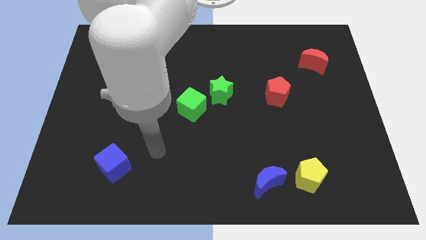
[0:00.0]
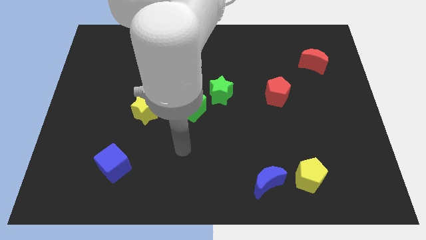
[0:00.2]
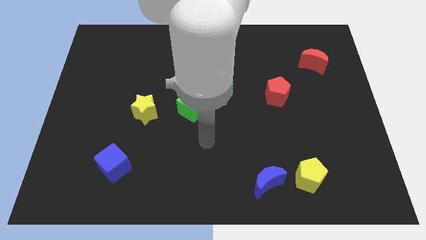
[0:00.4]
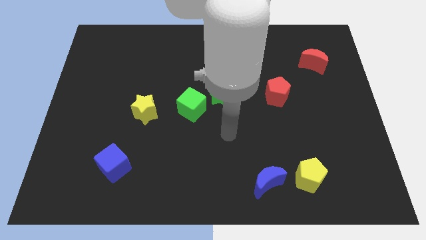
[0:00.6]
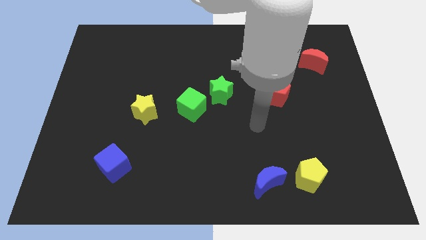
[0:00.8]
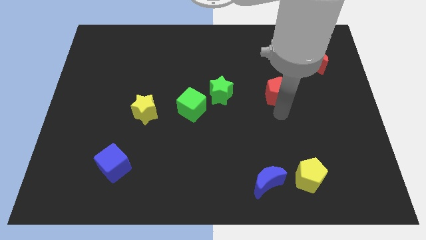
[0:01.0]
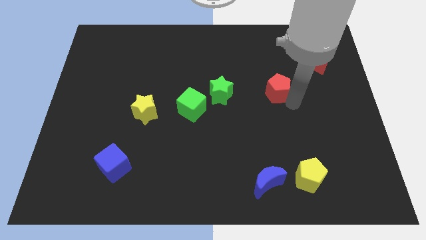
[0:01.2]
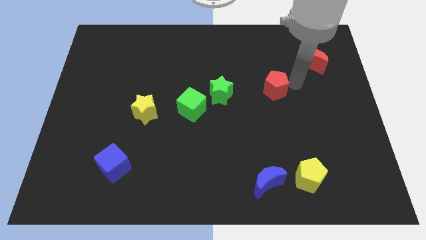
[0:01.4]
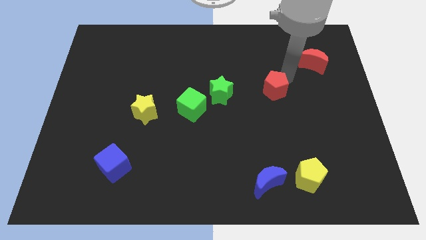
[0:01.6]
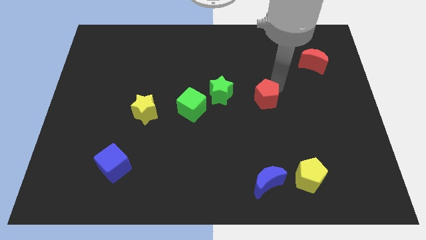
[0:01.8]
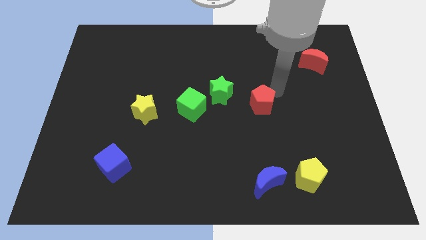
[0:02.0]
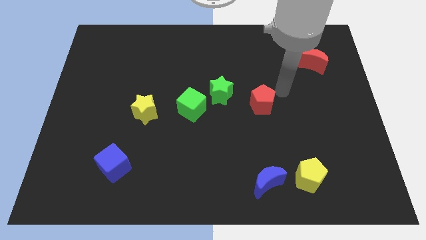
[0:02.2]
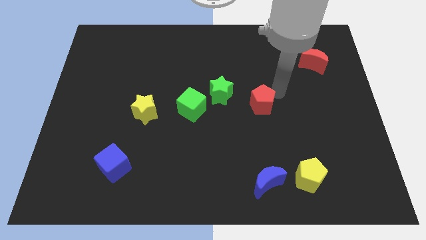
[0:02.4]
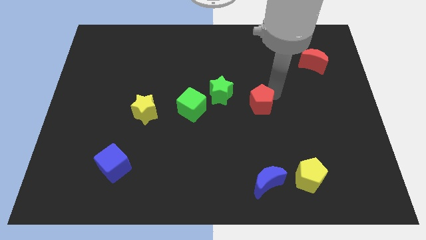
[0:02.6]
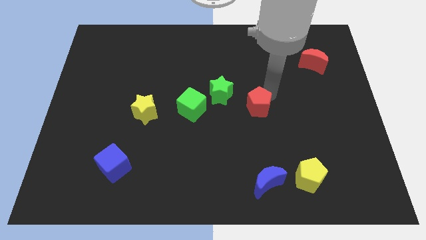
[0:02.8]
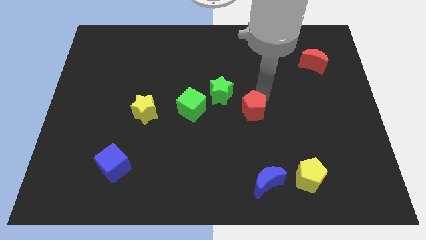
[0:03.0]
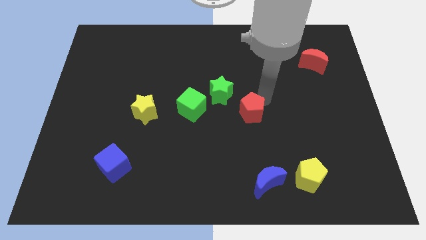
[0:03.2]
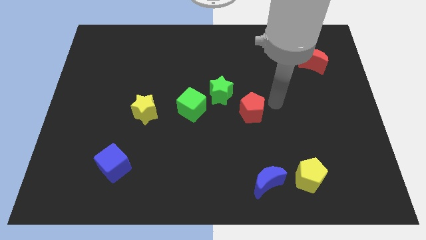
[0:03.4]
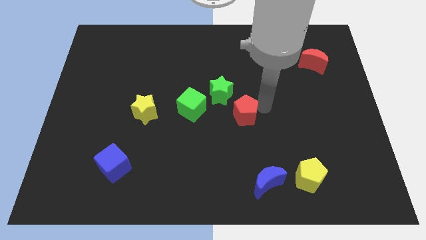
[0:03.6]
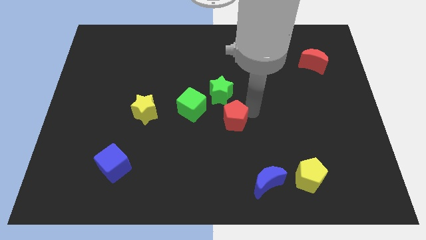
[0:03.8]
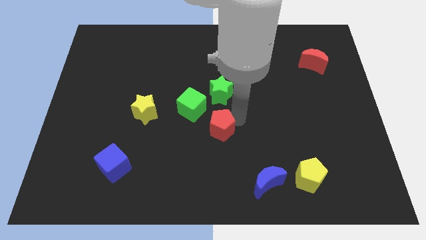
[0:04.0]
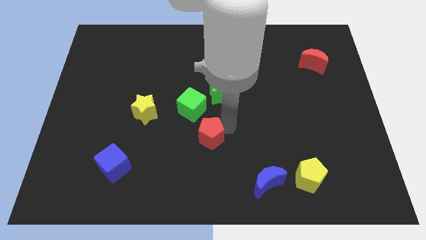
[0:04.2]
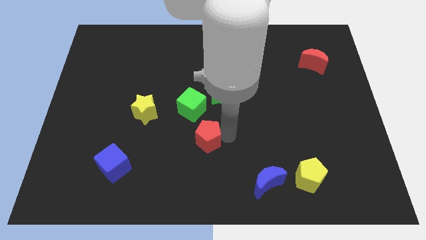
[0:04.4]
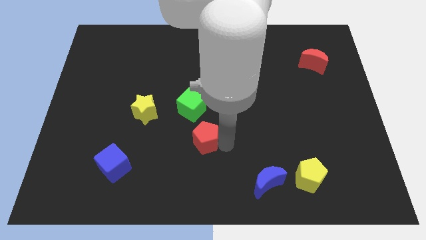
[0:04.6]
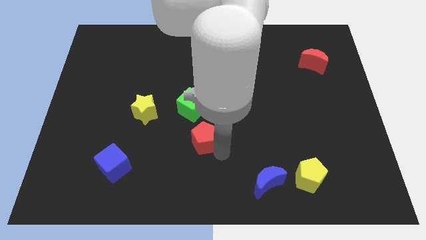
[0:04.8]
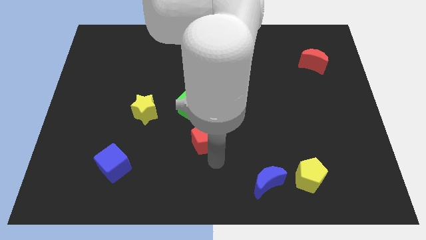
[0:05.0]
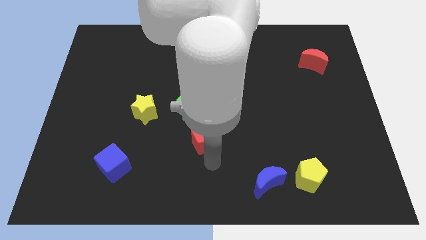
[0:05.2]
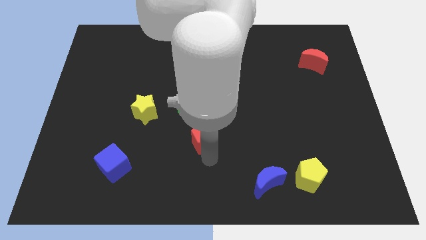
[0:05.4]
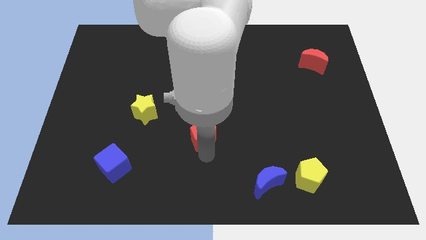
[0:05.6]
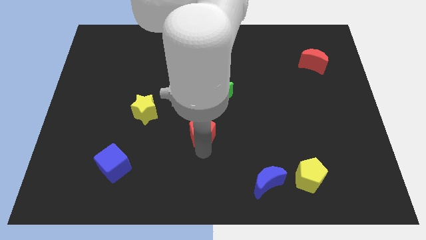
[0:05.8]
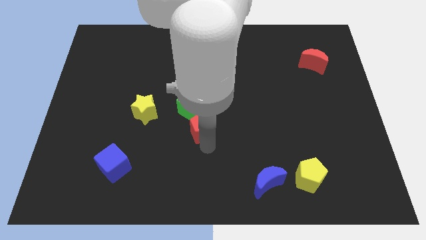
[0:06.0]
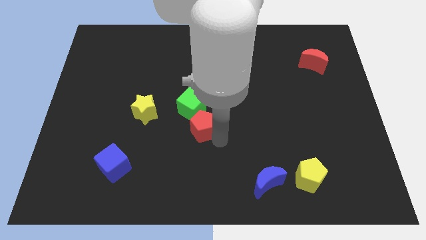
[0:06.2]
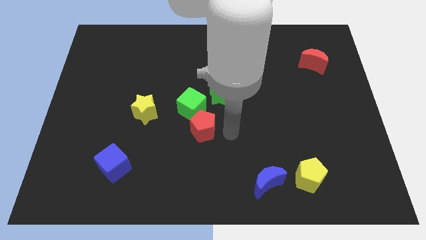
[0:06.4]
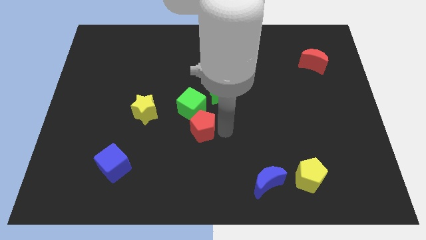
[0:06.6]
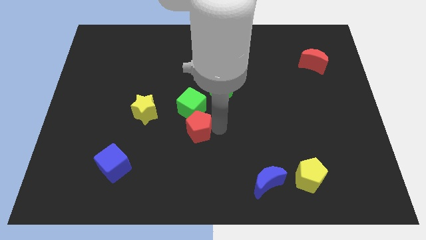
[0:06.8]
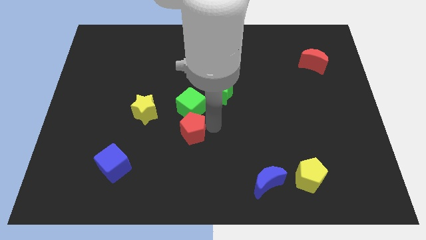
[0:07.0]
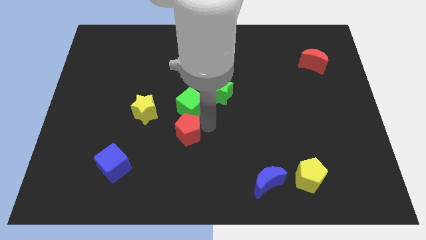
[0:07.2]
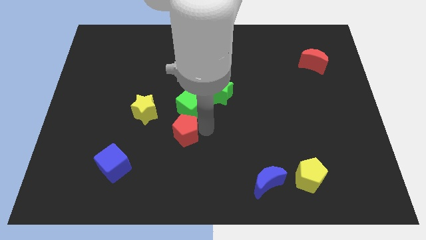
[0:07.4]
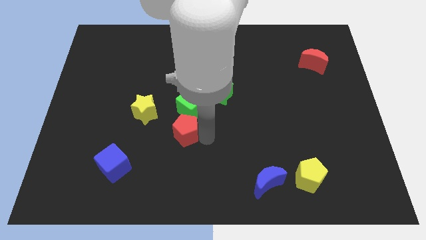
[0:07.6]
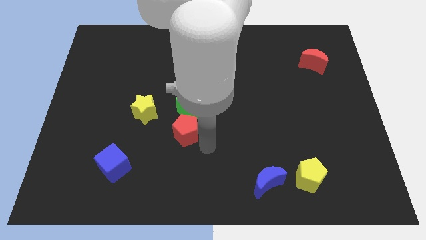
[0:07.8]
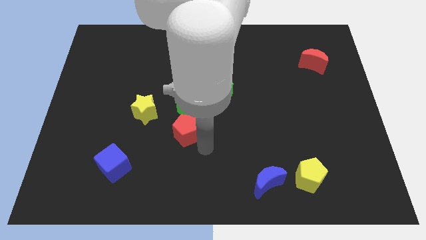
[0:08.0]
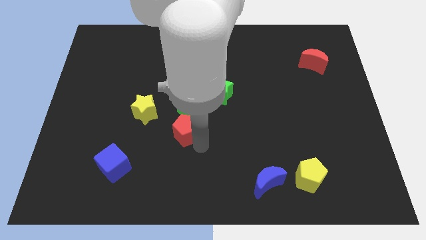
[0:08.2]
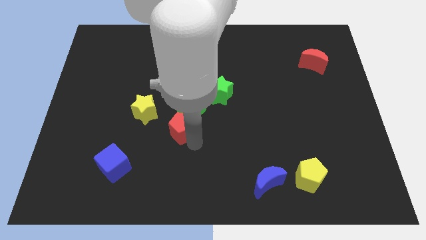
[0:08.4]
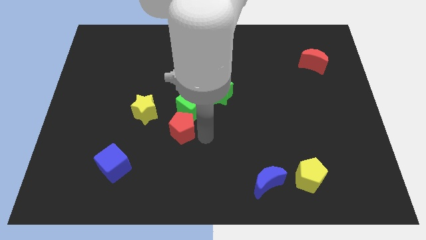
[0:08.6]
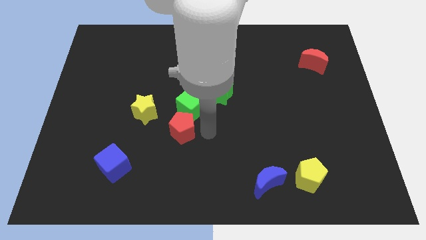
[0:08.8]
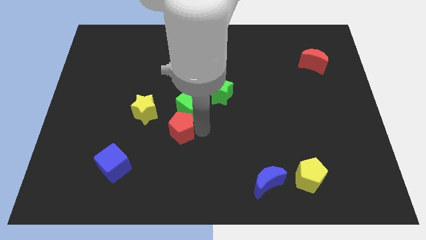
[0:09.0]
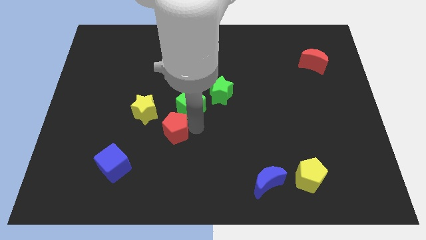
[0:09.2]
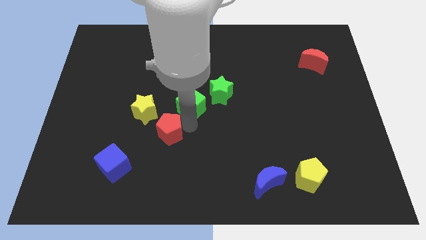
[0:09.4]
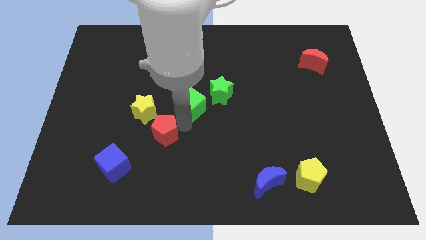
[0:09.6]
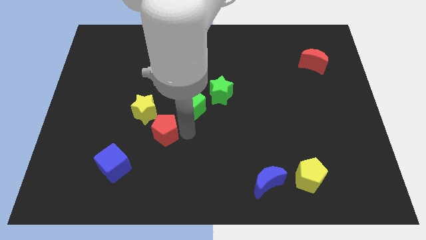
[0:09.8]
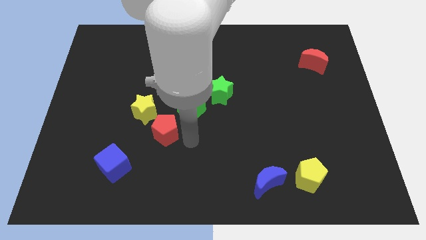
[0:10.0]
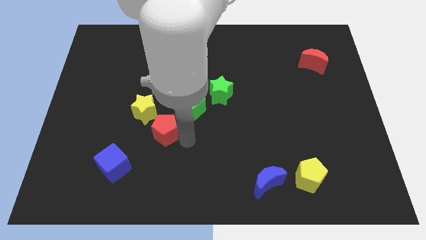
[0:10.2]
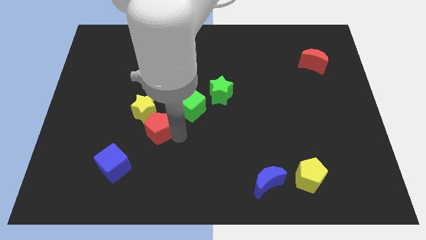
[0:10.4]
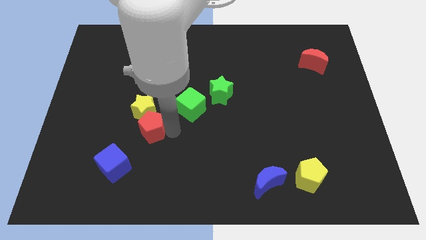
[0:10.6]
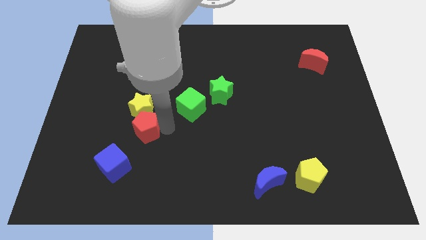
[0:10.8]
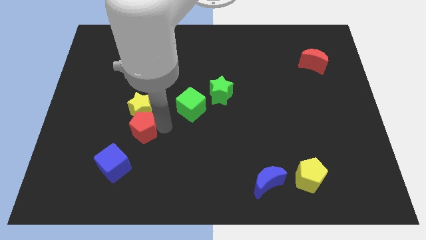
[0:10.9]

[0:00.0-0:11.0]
put the red pentagon to the bottom left side of the yellow star

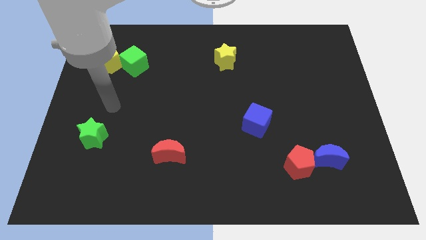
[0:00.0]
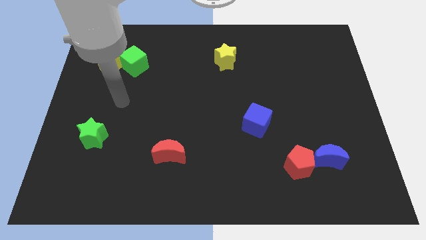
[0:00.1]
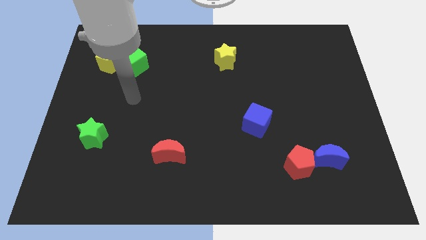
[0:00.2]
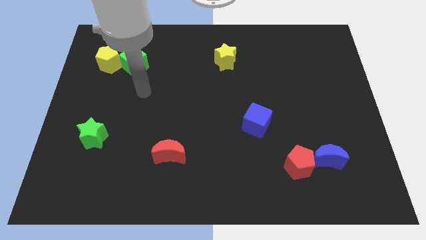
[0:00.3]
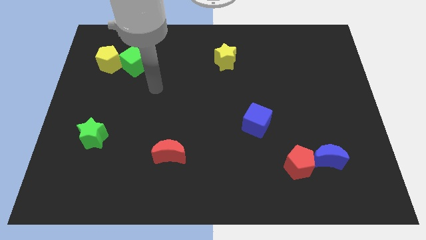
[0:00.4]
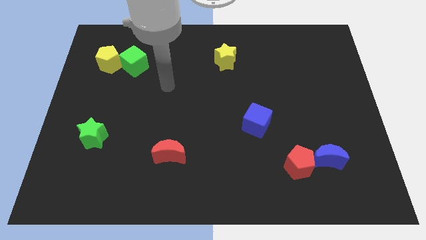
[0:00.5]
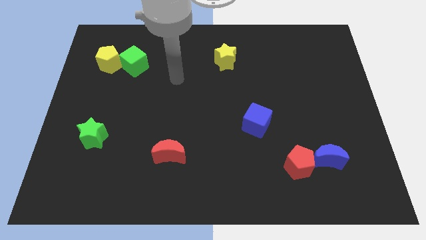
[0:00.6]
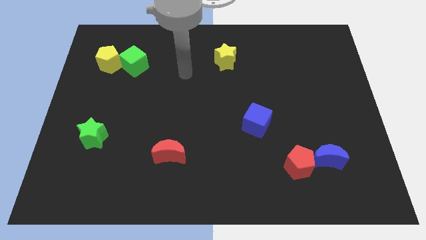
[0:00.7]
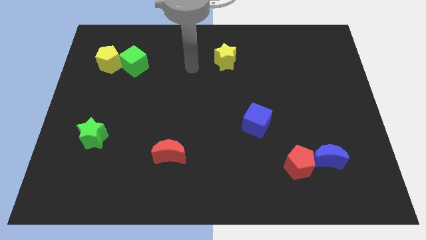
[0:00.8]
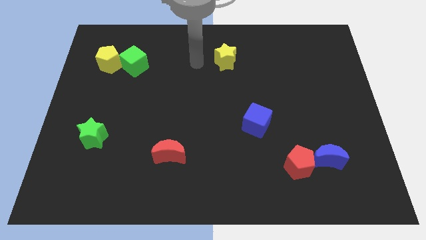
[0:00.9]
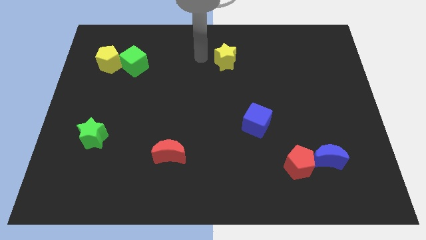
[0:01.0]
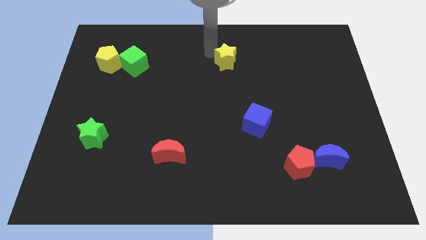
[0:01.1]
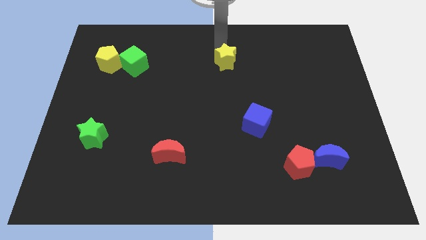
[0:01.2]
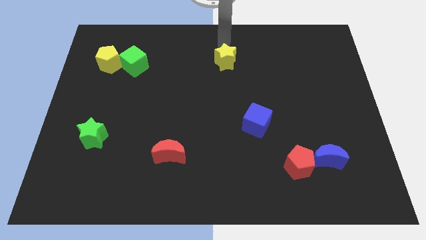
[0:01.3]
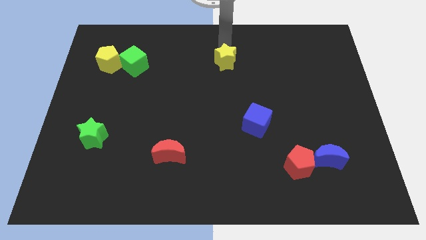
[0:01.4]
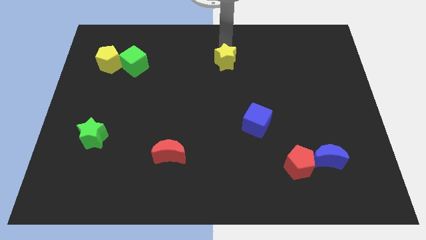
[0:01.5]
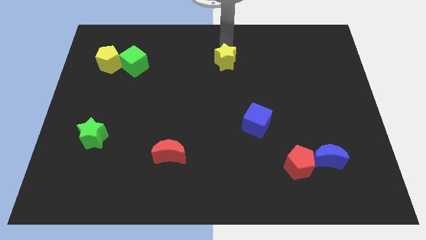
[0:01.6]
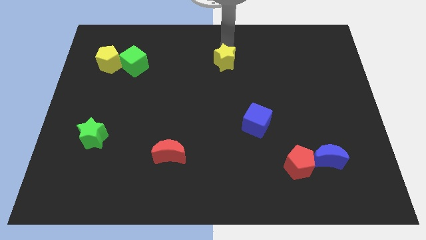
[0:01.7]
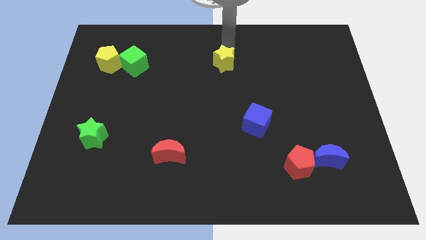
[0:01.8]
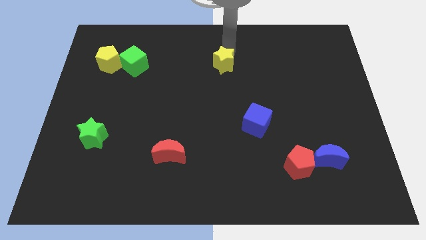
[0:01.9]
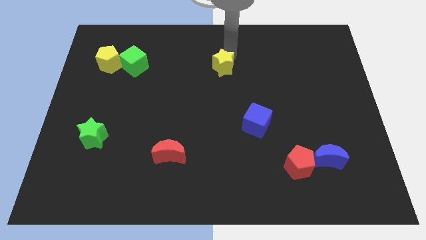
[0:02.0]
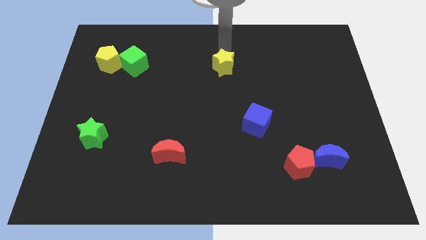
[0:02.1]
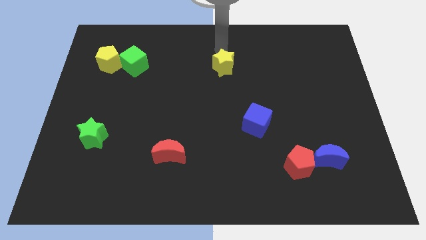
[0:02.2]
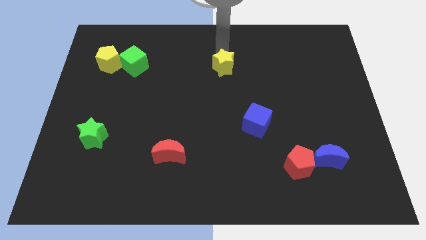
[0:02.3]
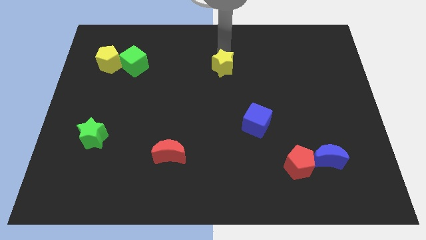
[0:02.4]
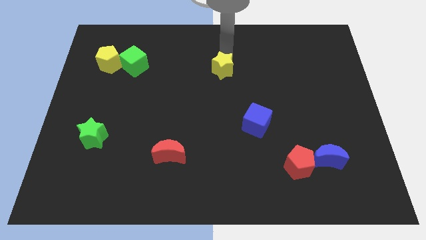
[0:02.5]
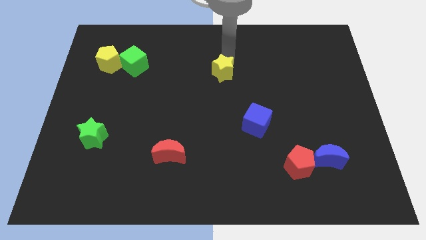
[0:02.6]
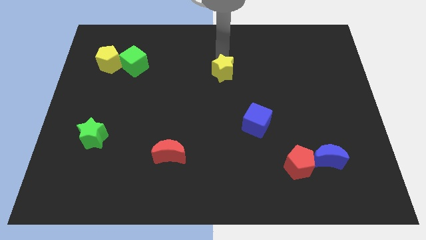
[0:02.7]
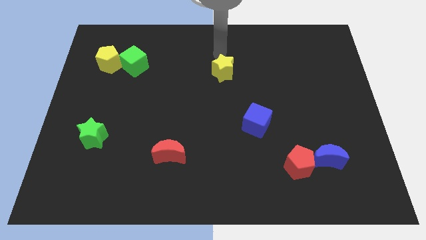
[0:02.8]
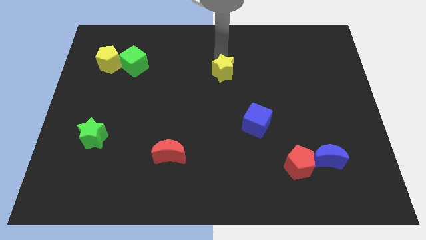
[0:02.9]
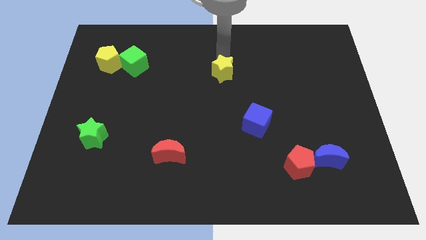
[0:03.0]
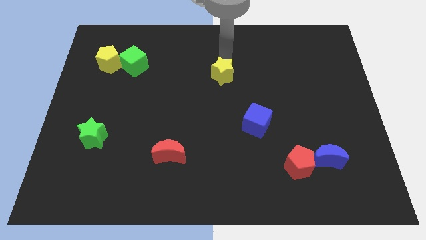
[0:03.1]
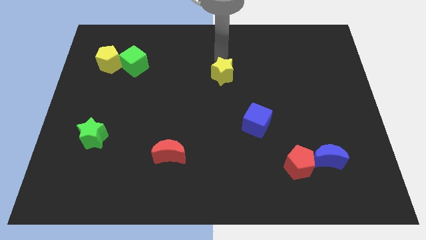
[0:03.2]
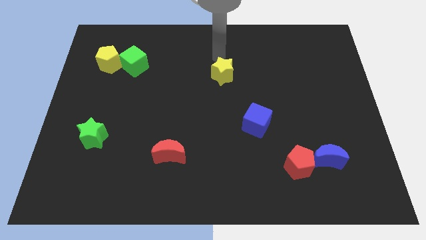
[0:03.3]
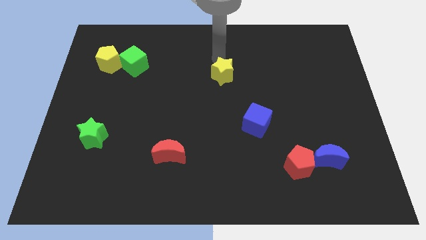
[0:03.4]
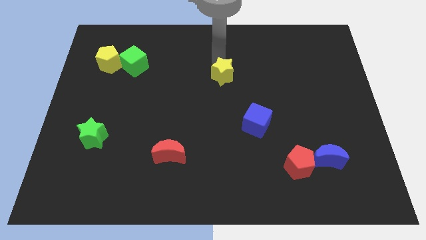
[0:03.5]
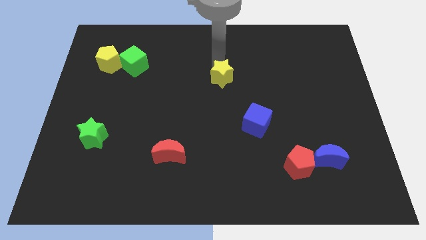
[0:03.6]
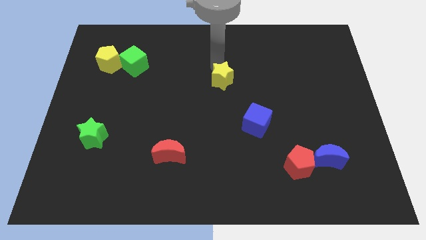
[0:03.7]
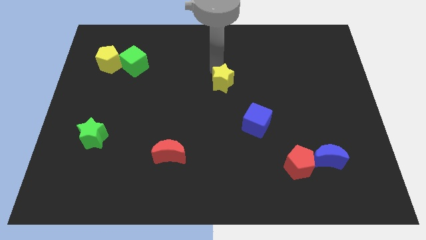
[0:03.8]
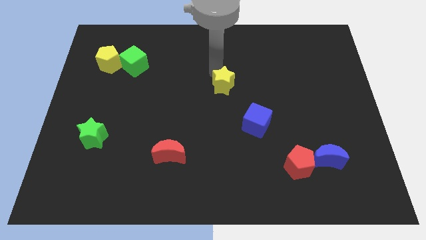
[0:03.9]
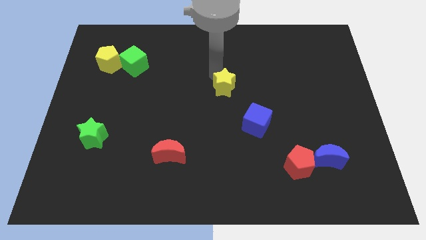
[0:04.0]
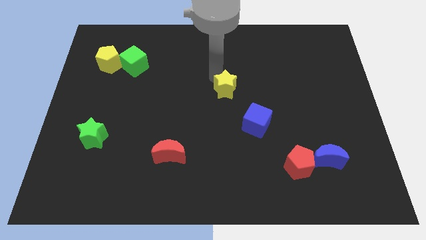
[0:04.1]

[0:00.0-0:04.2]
slide the yellow star to the top left side of the blue cube
